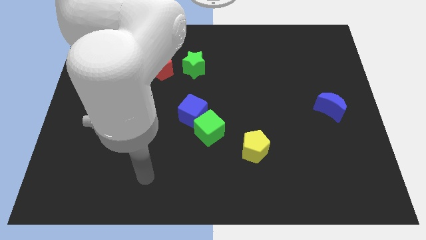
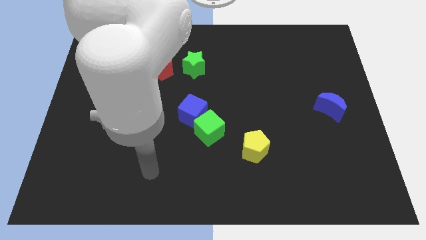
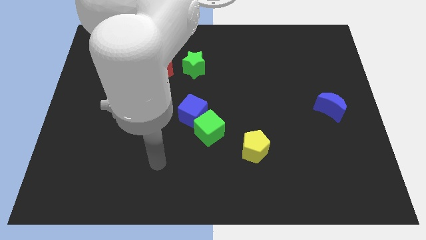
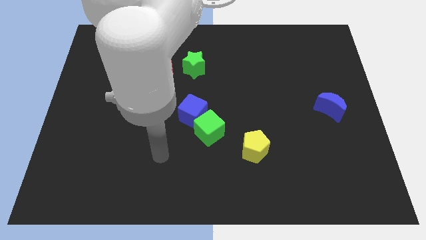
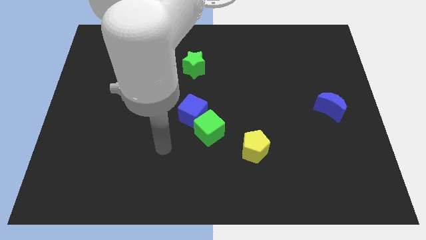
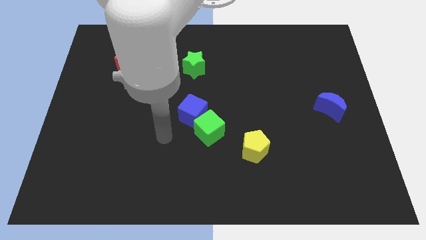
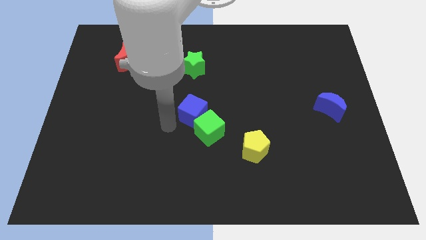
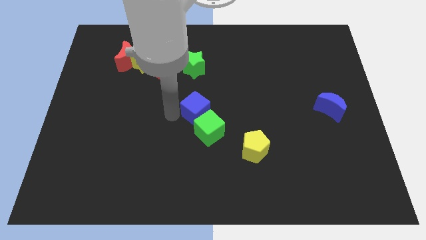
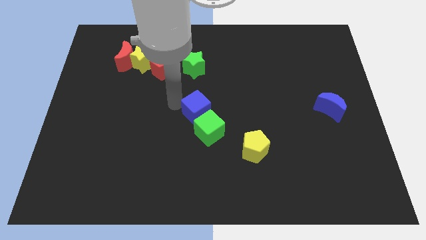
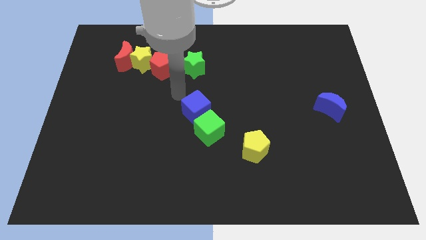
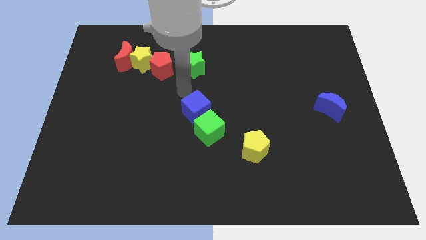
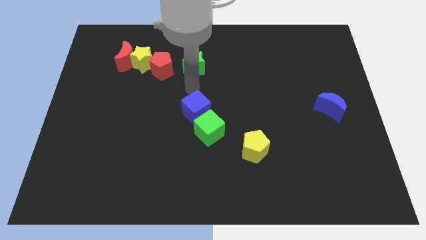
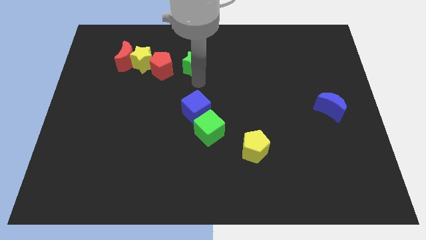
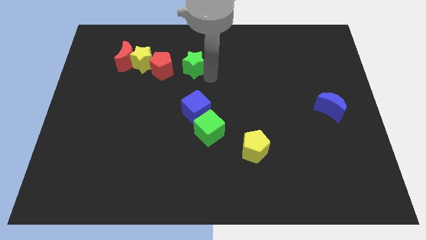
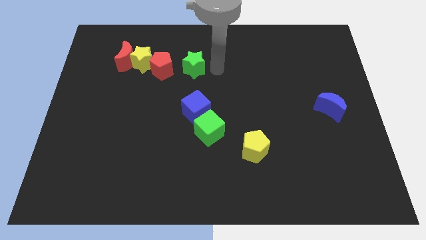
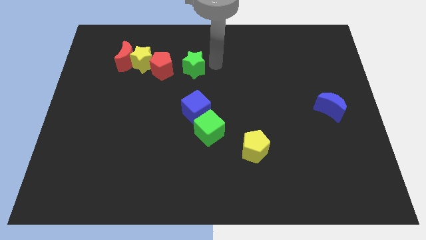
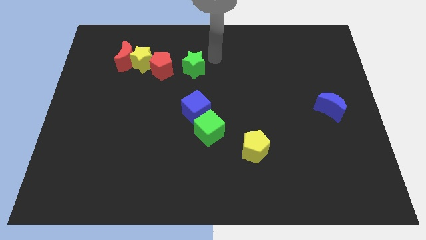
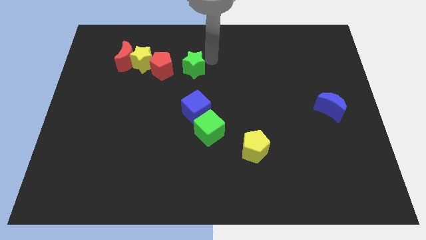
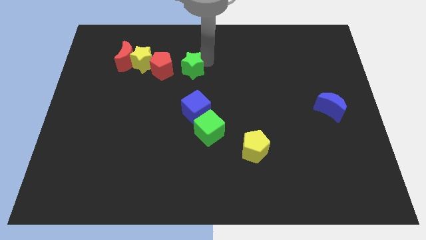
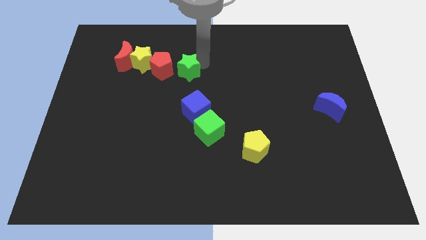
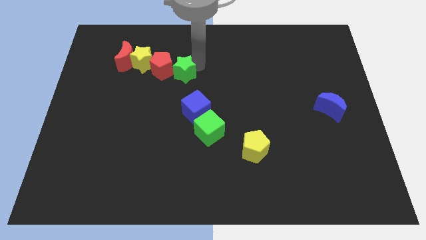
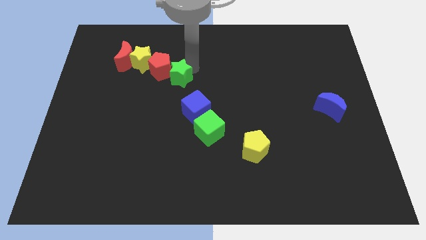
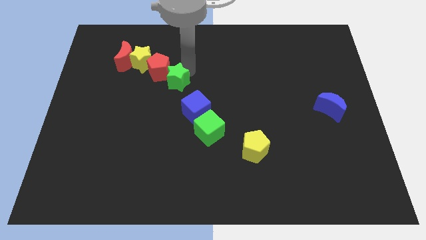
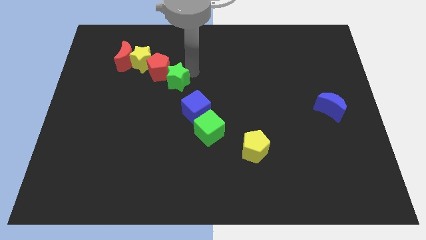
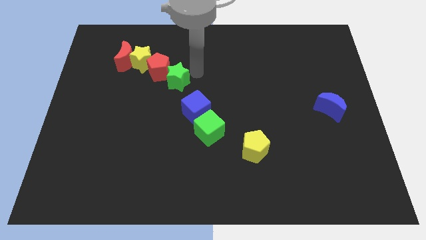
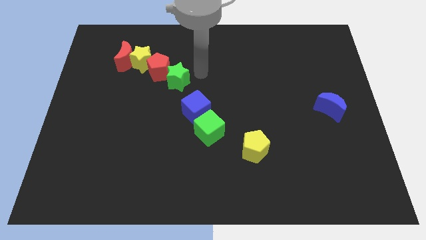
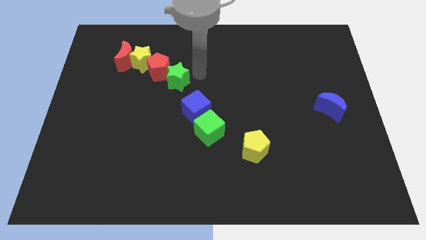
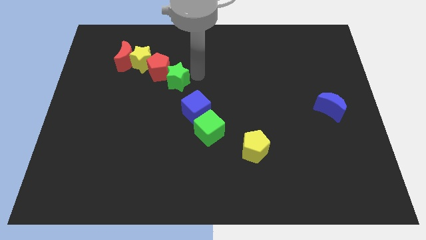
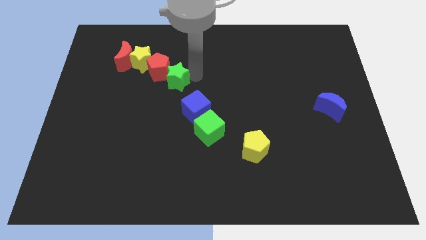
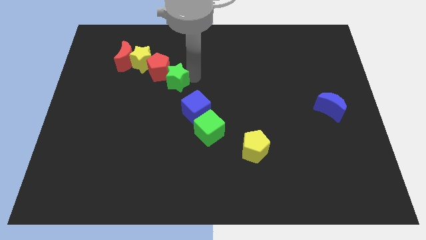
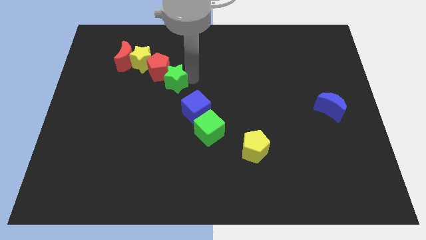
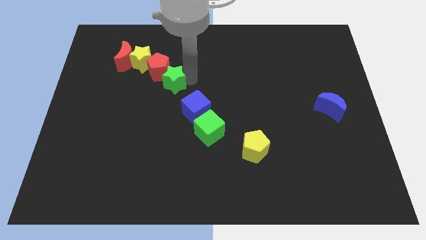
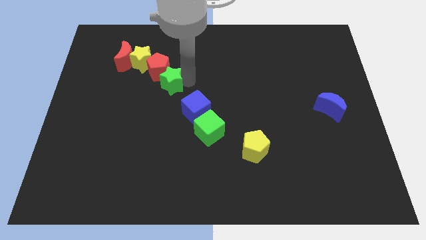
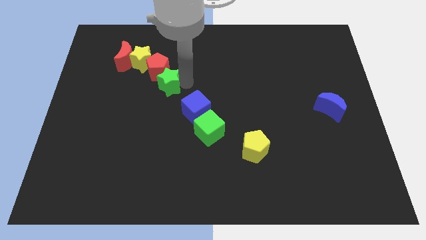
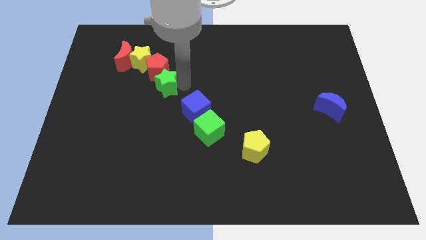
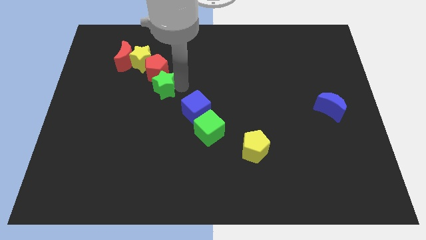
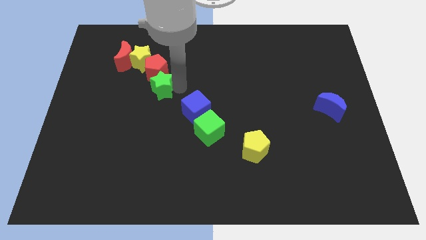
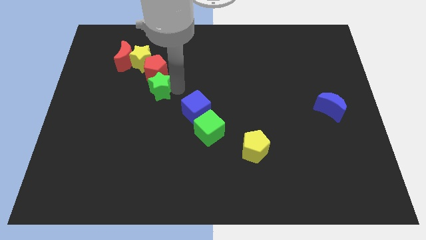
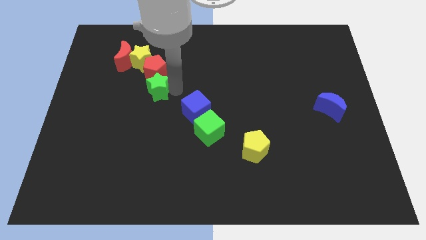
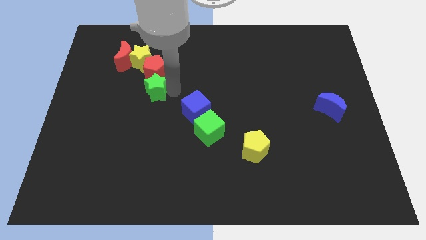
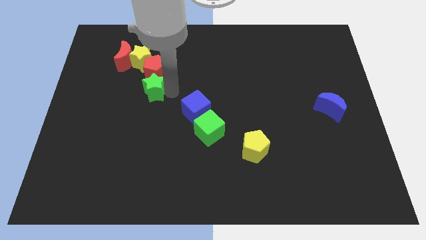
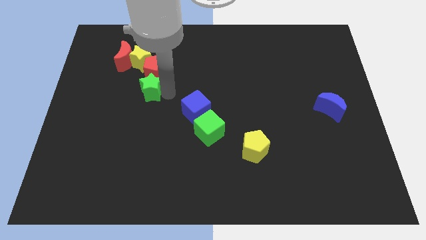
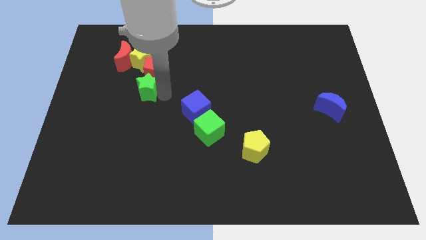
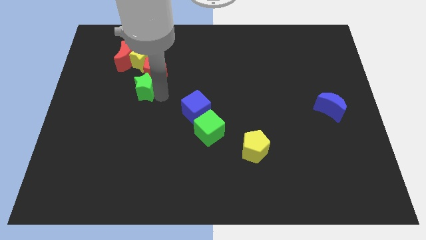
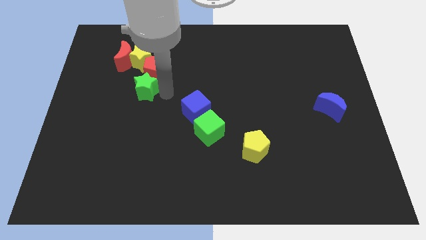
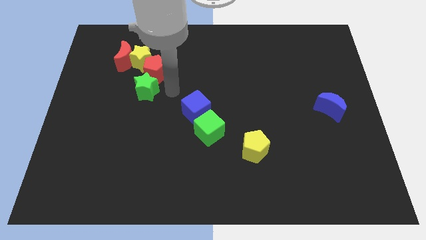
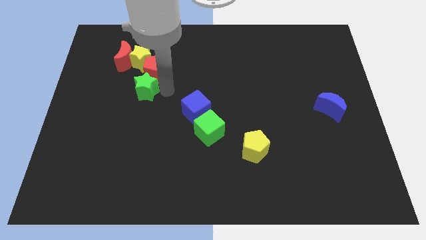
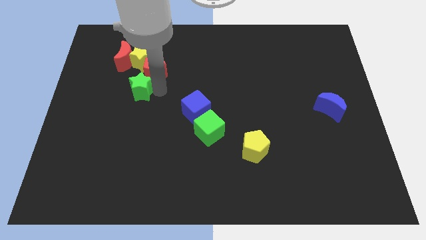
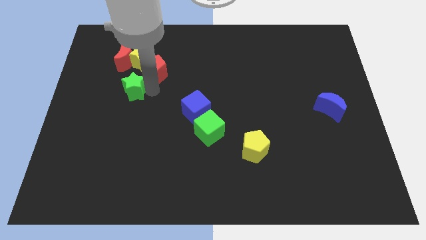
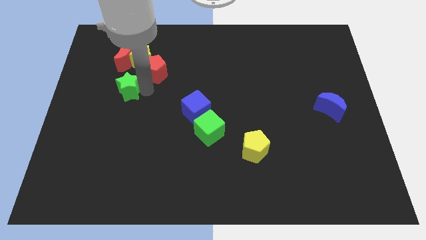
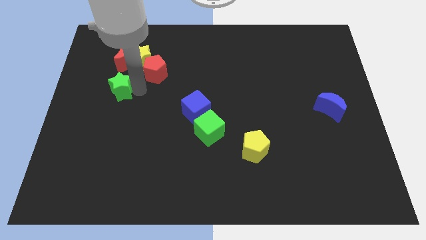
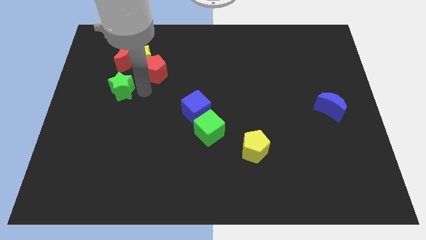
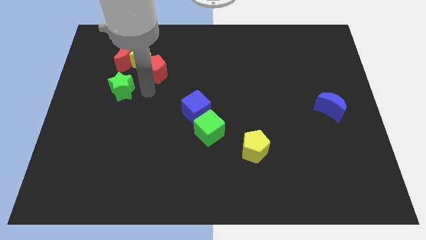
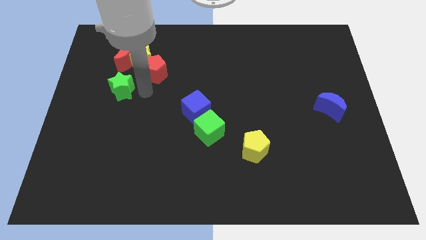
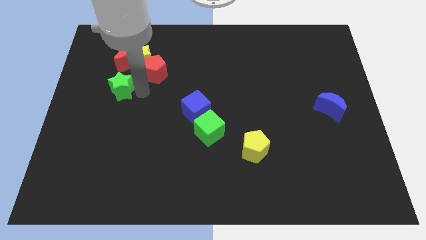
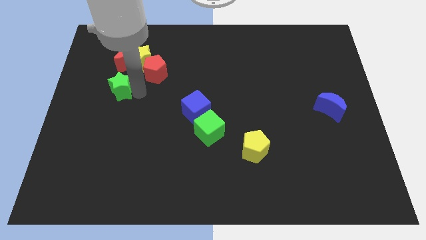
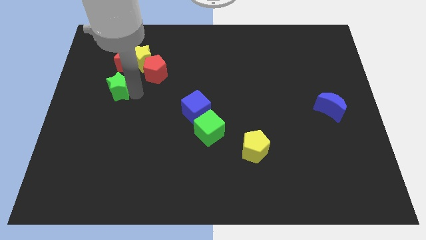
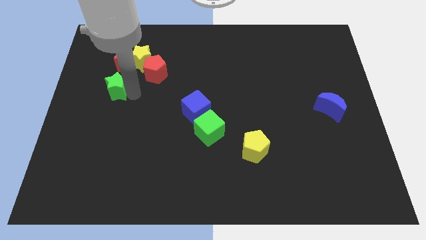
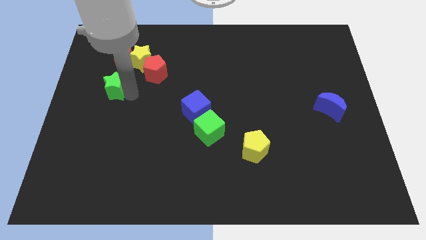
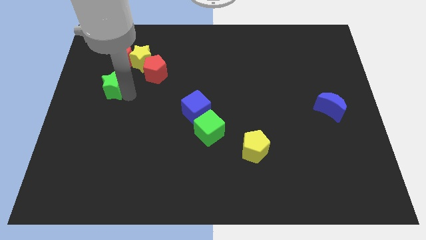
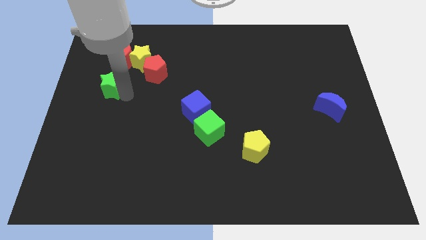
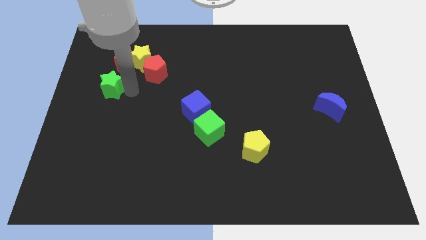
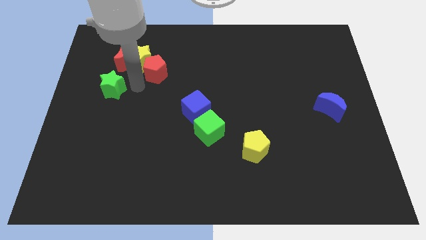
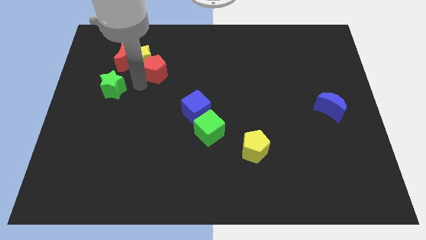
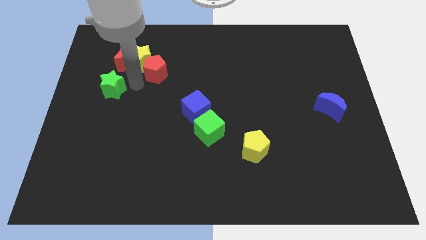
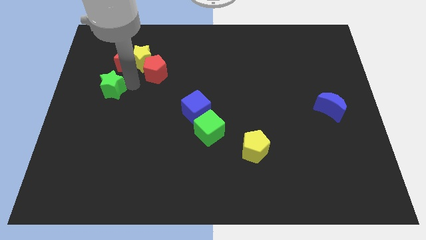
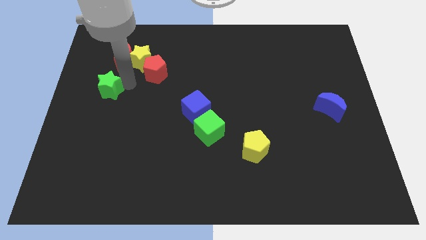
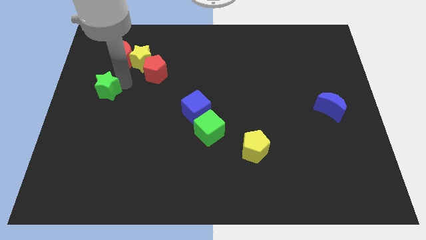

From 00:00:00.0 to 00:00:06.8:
push the green star to the left side of the board
